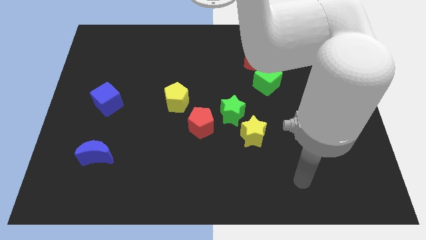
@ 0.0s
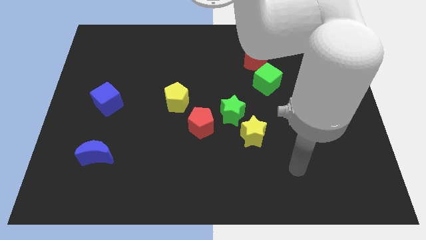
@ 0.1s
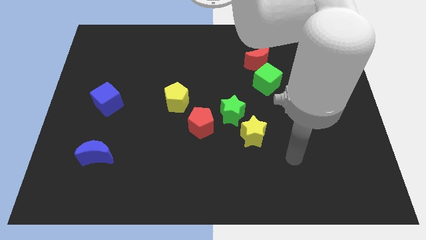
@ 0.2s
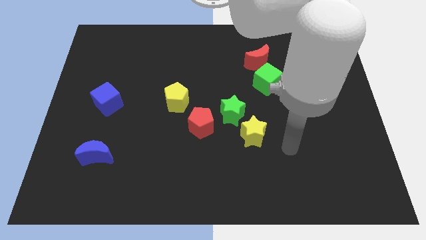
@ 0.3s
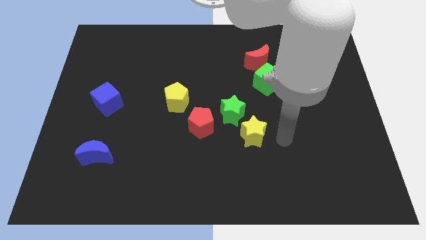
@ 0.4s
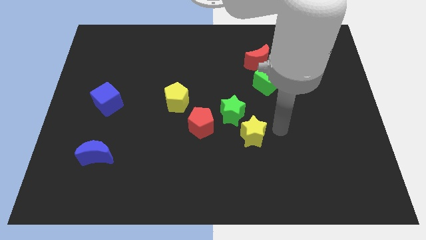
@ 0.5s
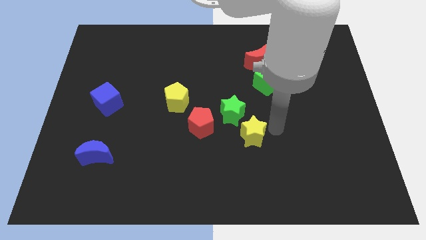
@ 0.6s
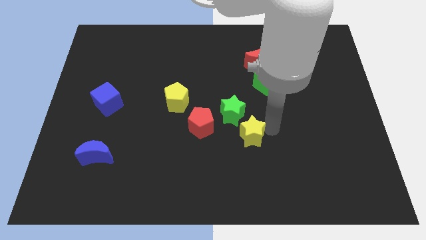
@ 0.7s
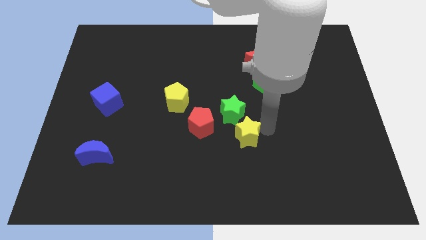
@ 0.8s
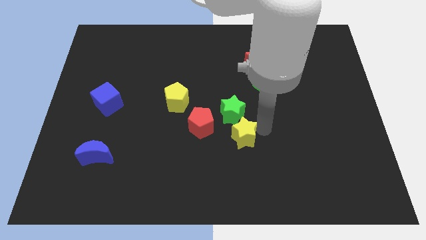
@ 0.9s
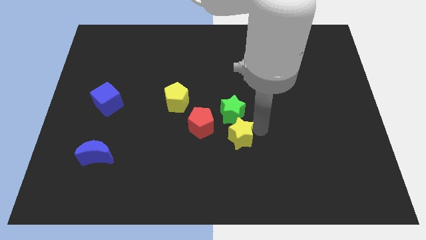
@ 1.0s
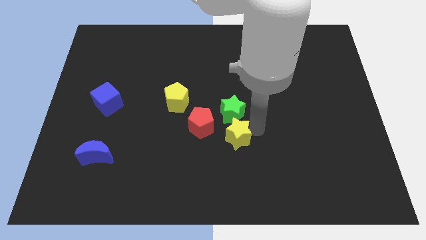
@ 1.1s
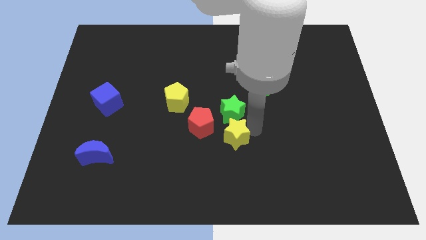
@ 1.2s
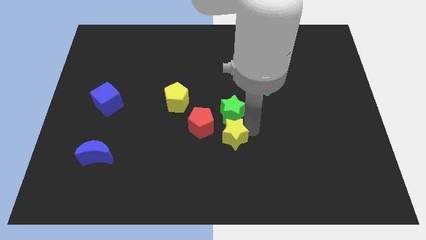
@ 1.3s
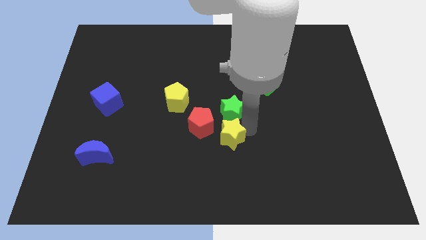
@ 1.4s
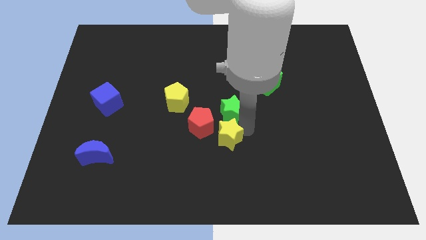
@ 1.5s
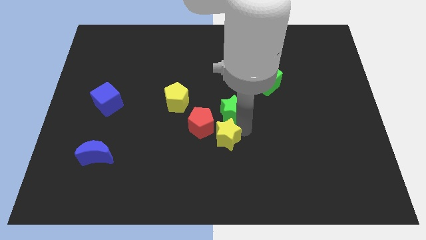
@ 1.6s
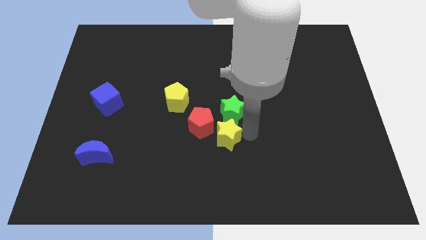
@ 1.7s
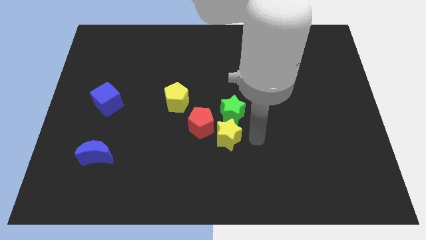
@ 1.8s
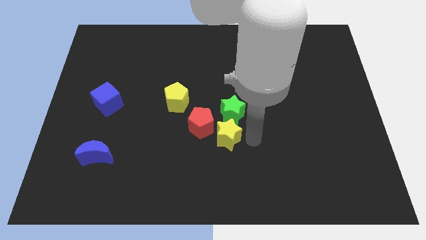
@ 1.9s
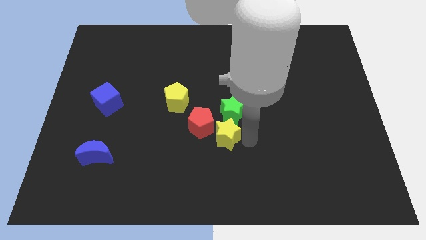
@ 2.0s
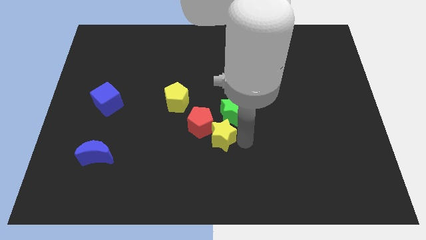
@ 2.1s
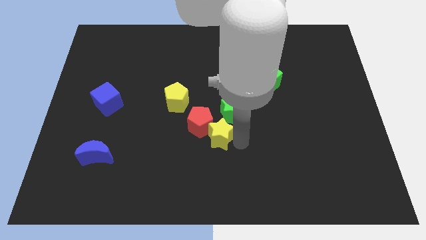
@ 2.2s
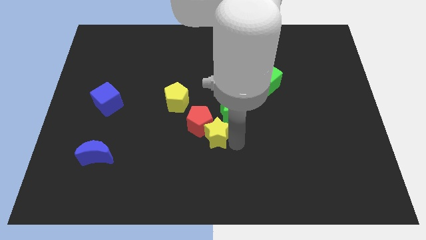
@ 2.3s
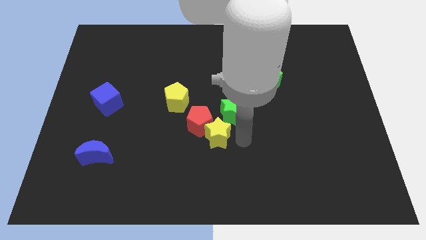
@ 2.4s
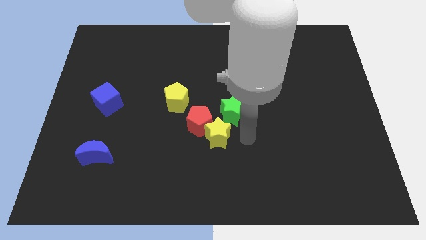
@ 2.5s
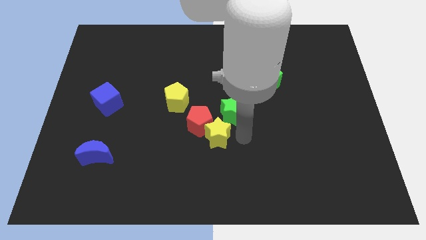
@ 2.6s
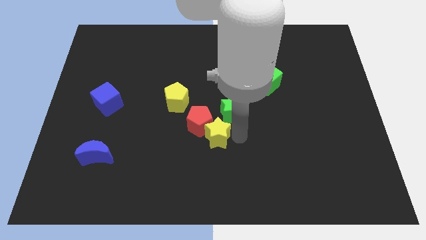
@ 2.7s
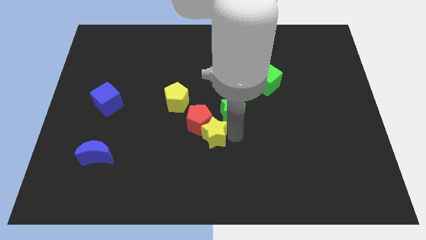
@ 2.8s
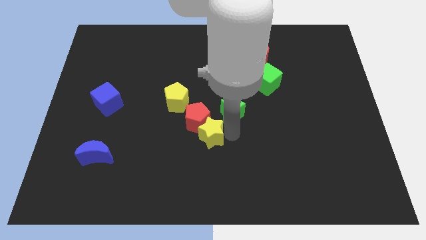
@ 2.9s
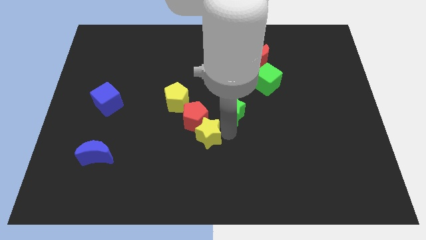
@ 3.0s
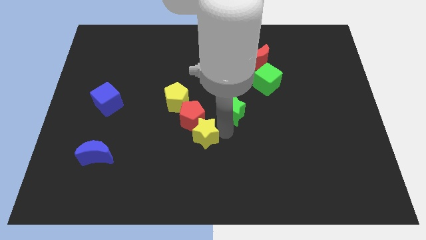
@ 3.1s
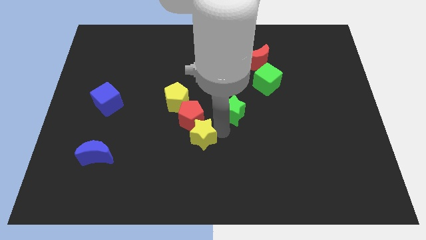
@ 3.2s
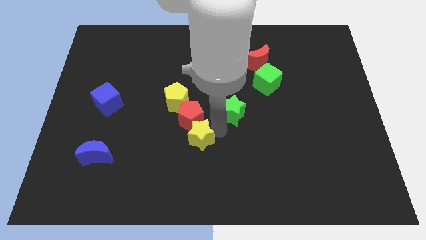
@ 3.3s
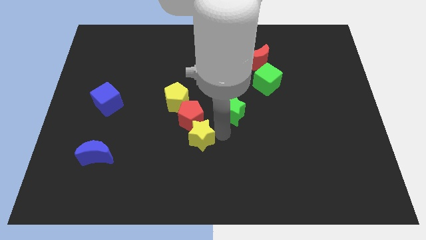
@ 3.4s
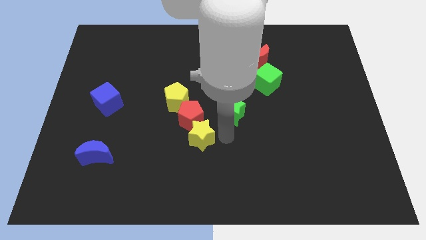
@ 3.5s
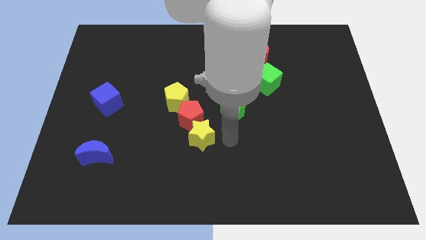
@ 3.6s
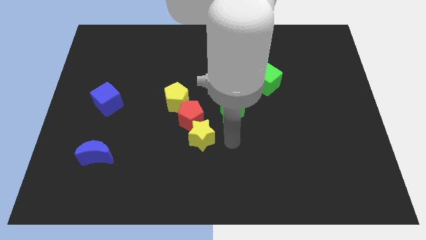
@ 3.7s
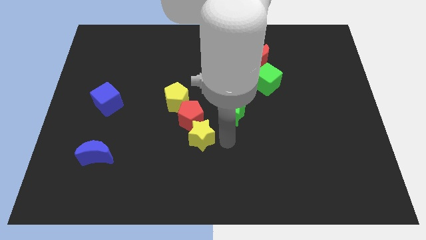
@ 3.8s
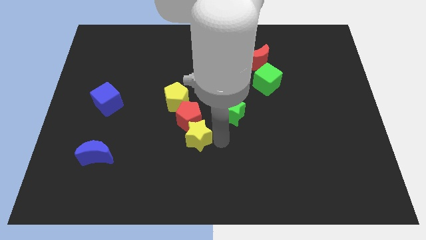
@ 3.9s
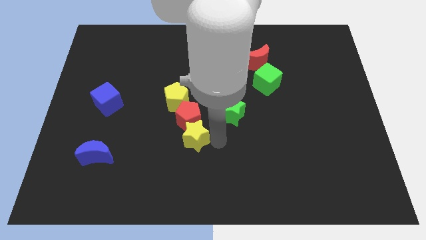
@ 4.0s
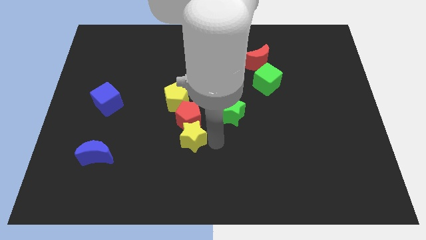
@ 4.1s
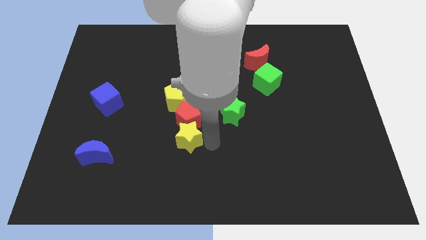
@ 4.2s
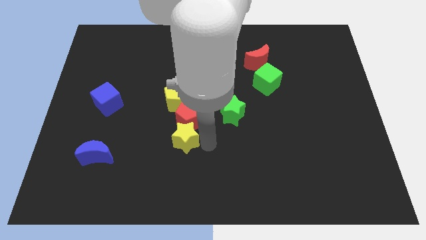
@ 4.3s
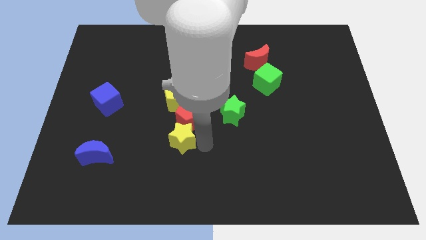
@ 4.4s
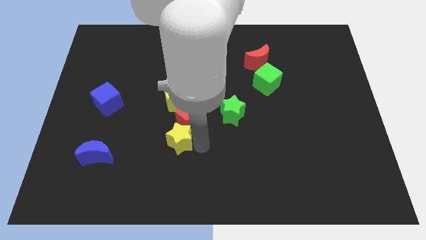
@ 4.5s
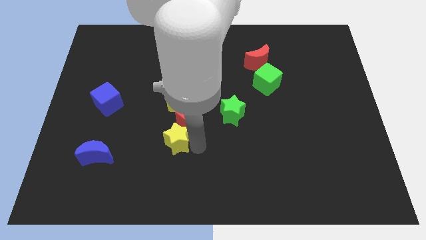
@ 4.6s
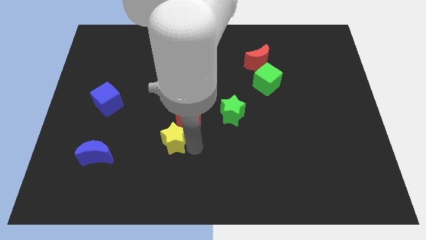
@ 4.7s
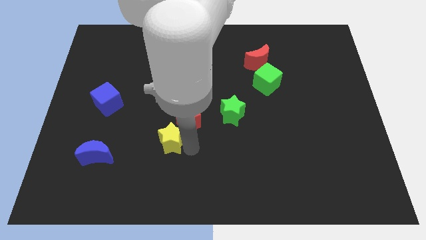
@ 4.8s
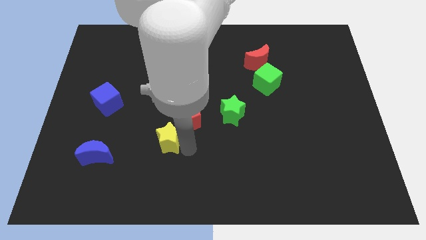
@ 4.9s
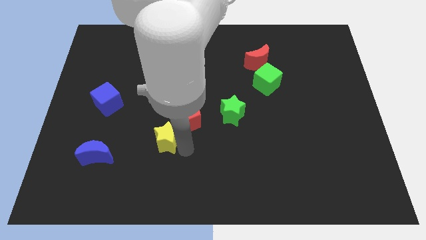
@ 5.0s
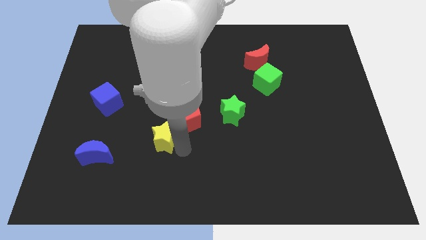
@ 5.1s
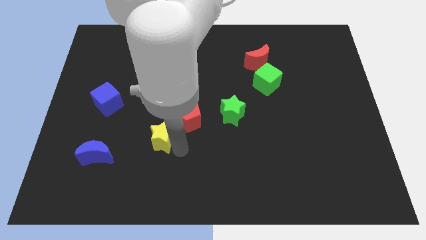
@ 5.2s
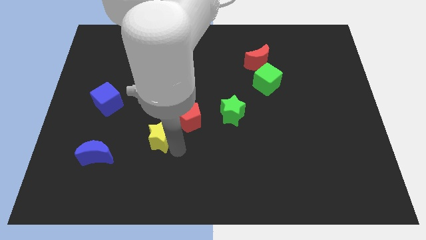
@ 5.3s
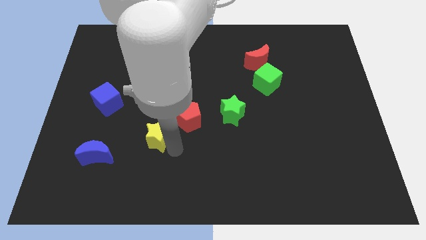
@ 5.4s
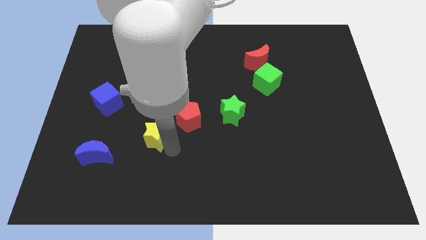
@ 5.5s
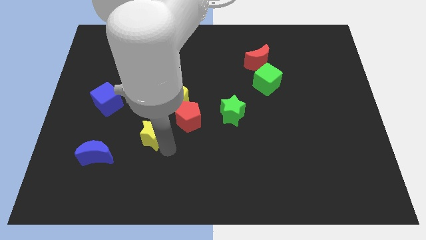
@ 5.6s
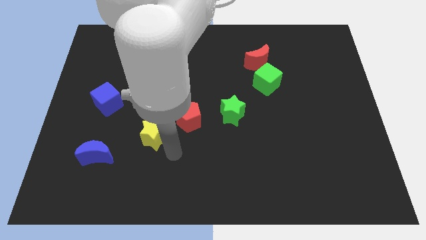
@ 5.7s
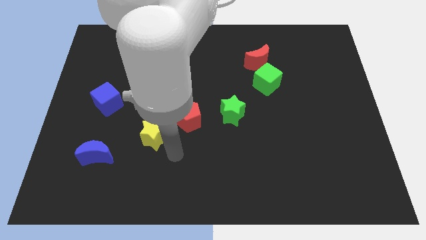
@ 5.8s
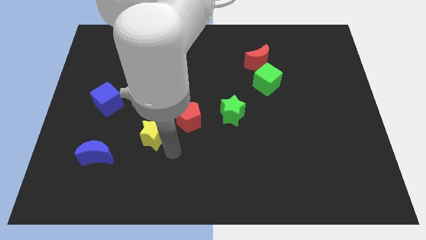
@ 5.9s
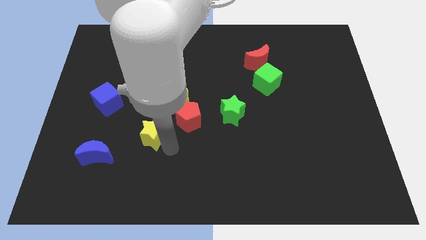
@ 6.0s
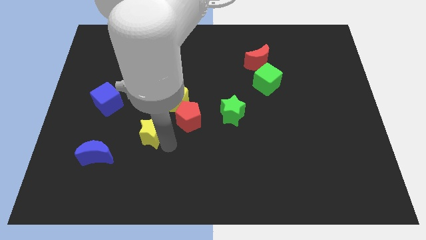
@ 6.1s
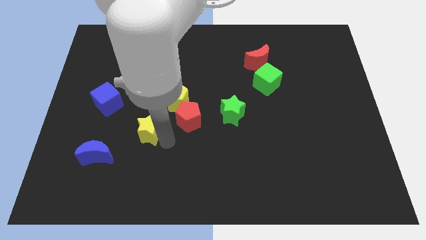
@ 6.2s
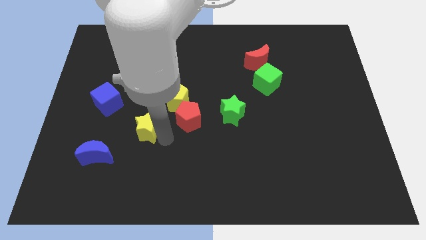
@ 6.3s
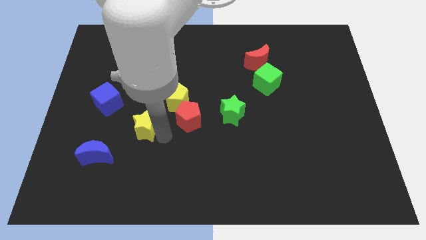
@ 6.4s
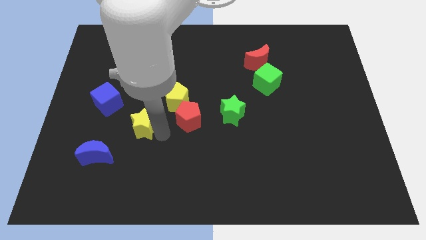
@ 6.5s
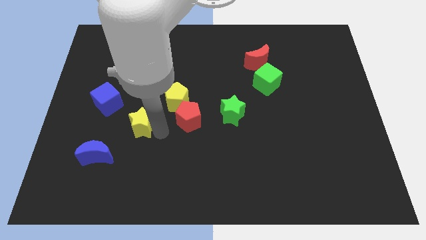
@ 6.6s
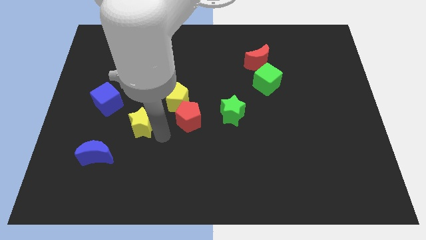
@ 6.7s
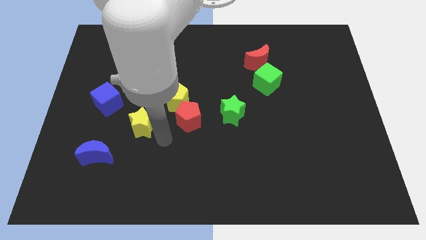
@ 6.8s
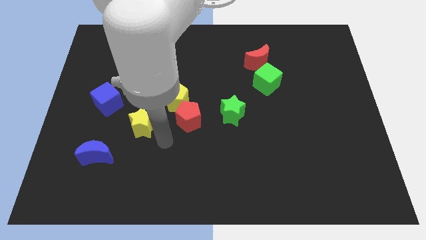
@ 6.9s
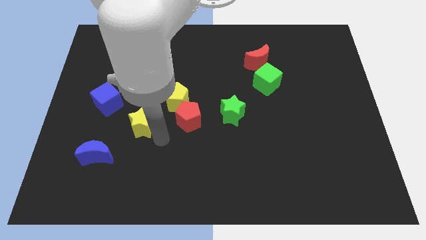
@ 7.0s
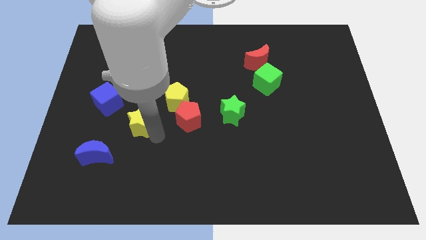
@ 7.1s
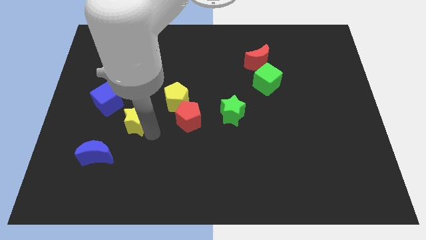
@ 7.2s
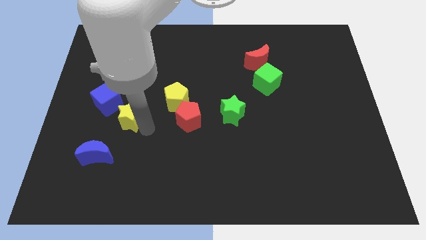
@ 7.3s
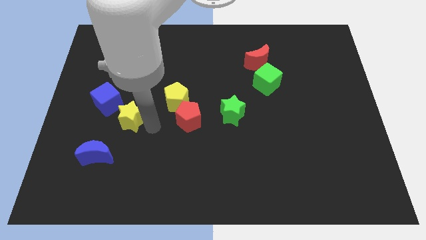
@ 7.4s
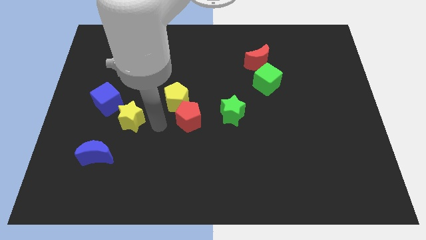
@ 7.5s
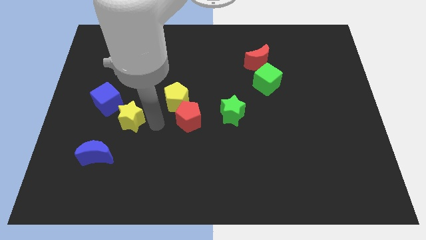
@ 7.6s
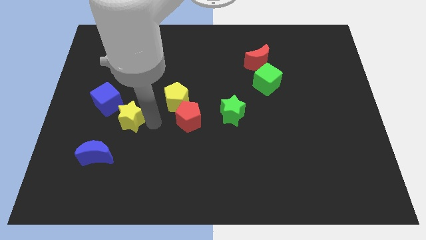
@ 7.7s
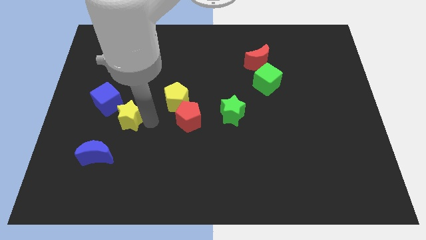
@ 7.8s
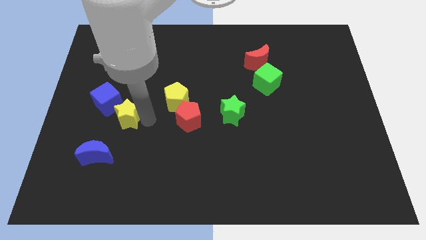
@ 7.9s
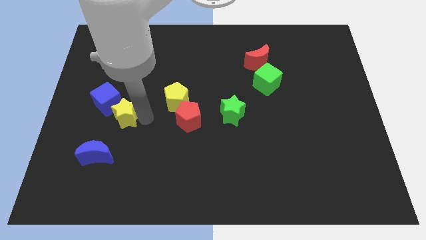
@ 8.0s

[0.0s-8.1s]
slide the yellow star above the blue moon
